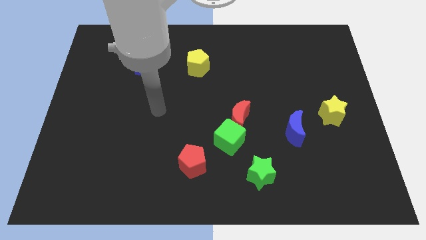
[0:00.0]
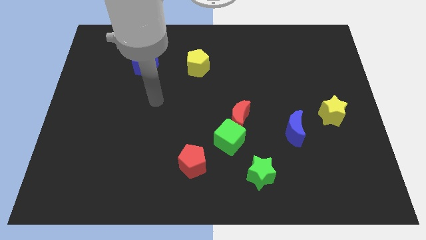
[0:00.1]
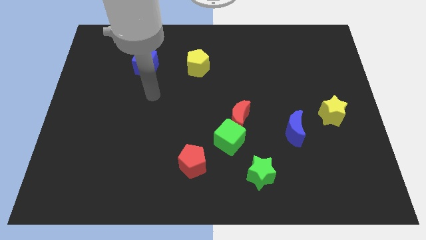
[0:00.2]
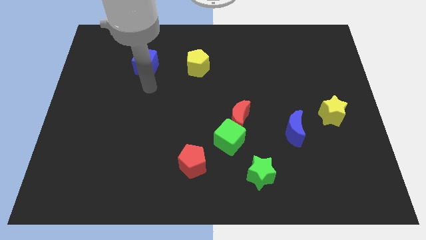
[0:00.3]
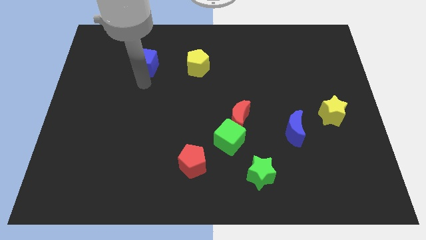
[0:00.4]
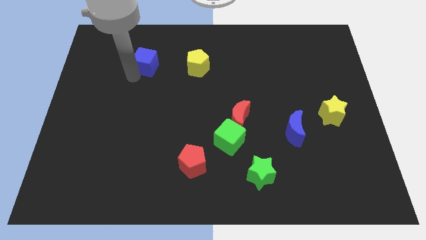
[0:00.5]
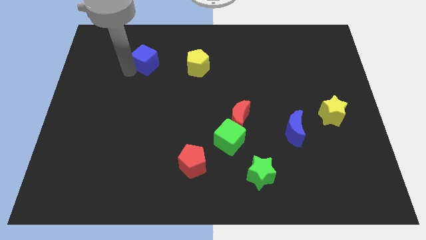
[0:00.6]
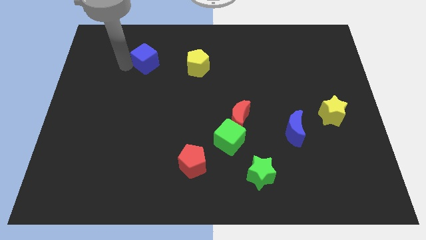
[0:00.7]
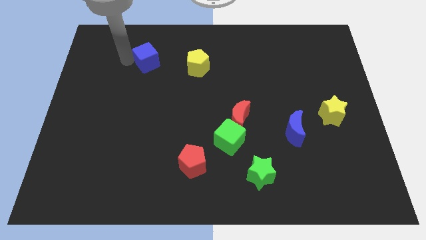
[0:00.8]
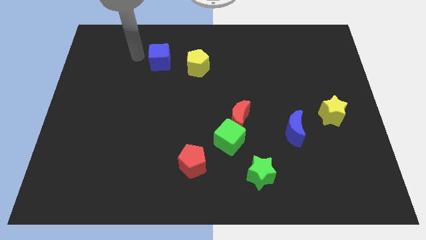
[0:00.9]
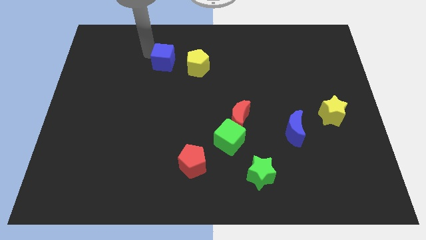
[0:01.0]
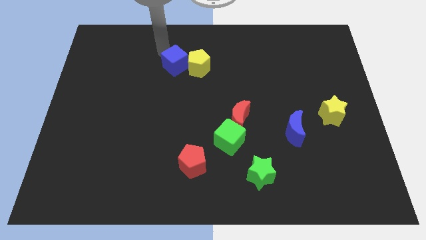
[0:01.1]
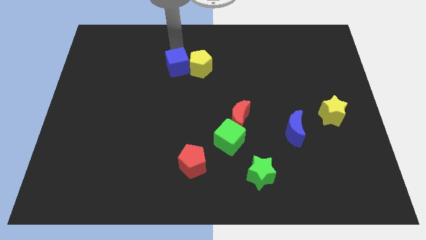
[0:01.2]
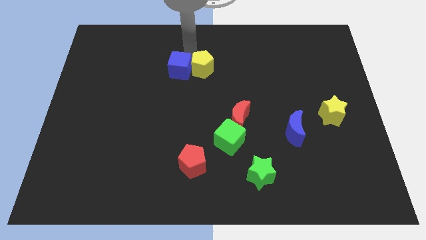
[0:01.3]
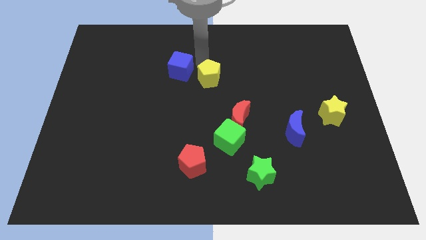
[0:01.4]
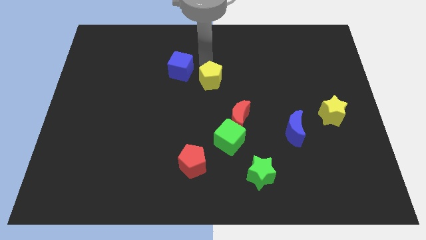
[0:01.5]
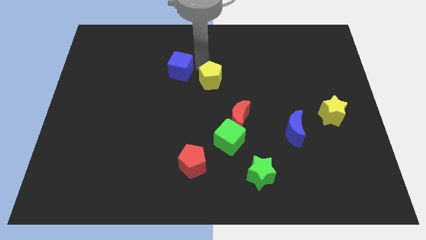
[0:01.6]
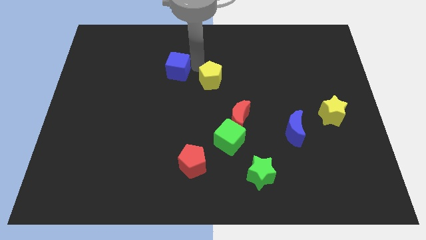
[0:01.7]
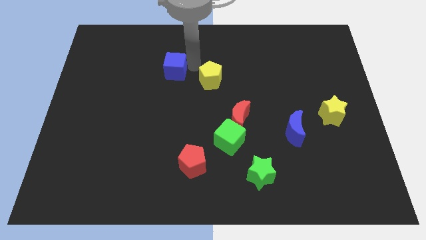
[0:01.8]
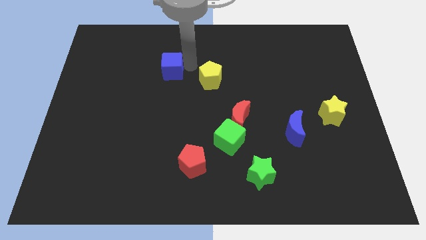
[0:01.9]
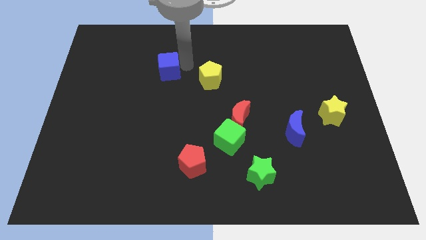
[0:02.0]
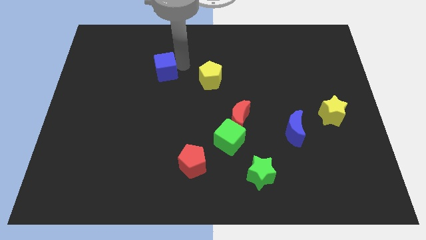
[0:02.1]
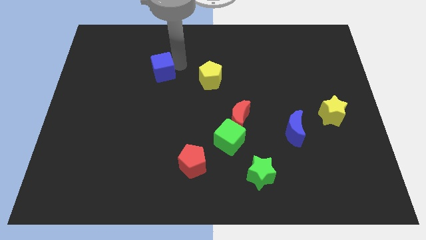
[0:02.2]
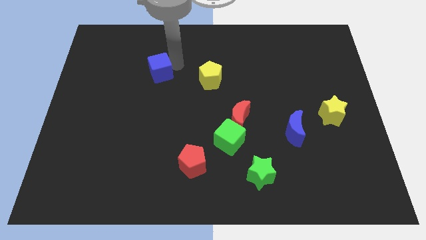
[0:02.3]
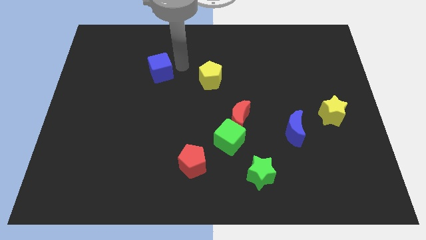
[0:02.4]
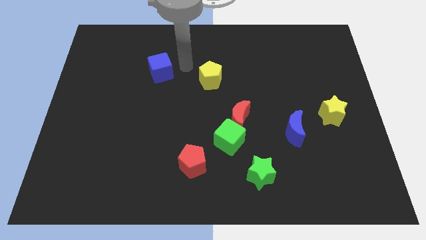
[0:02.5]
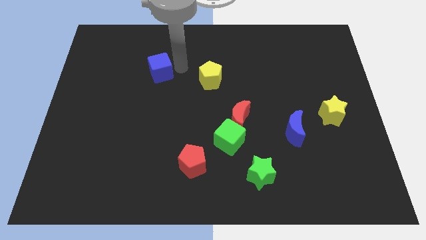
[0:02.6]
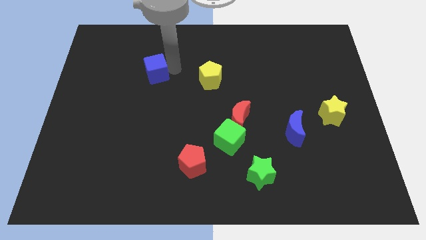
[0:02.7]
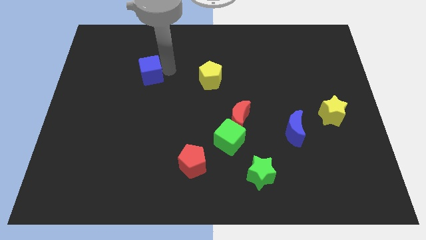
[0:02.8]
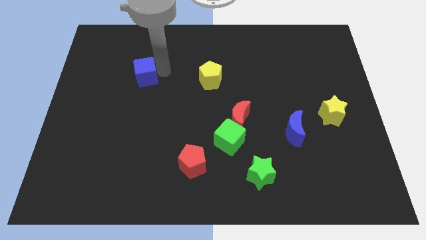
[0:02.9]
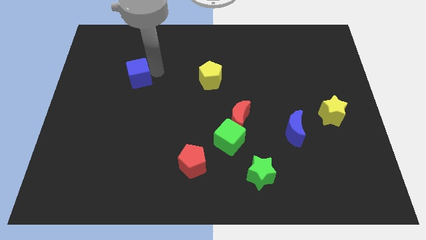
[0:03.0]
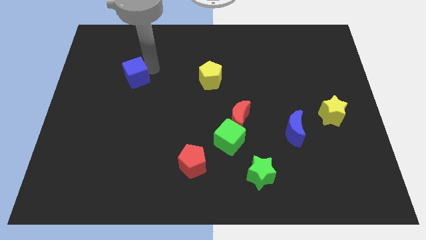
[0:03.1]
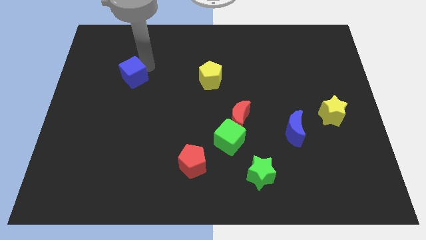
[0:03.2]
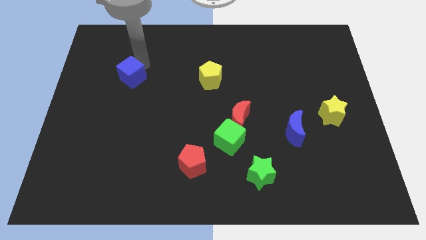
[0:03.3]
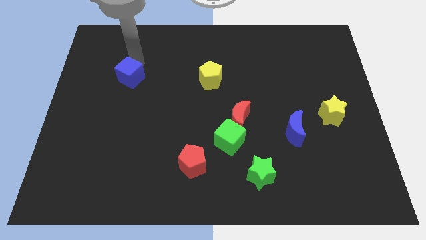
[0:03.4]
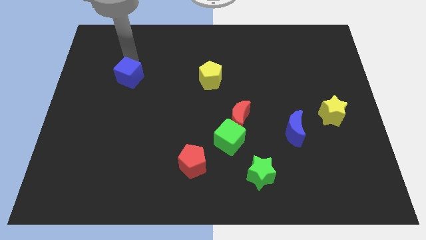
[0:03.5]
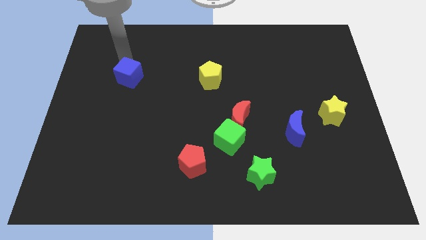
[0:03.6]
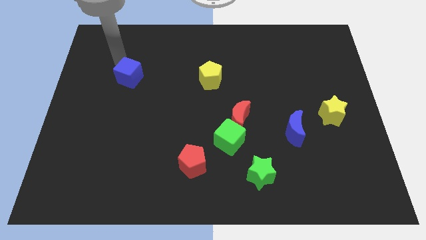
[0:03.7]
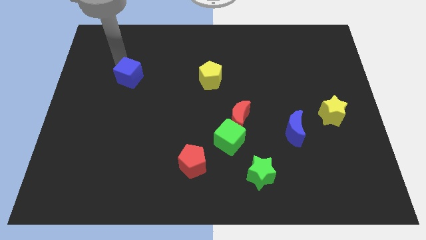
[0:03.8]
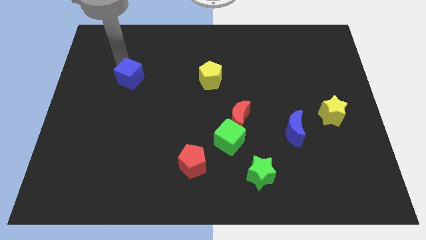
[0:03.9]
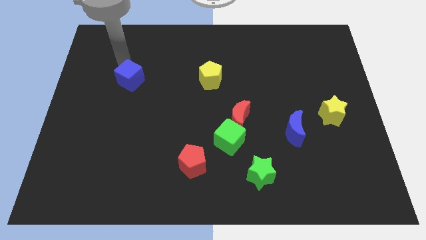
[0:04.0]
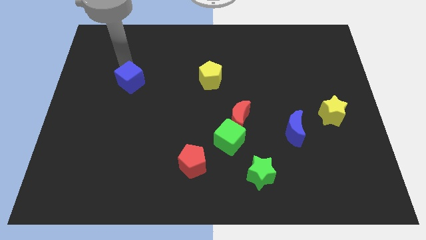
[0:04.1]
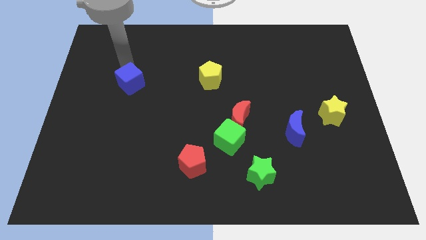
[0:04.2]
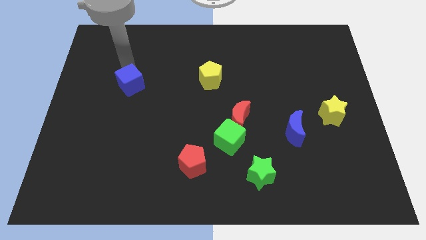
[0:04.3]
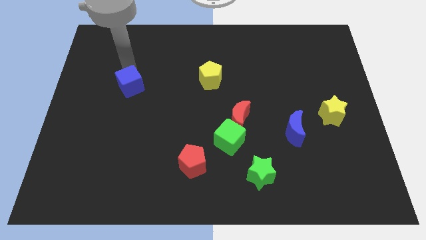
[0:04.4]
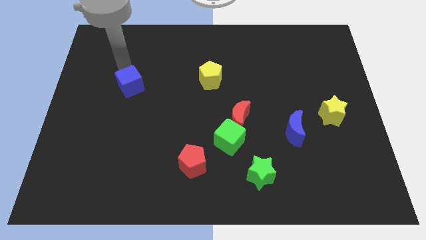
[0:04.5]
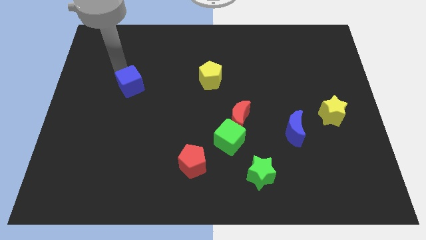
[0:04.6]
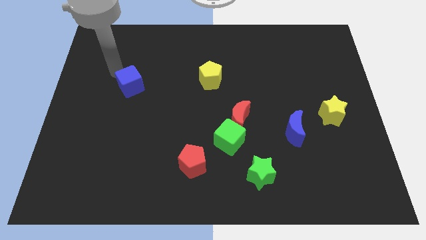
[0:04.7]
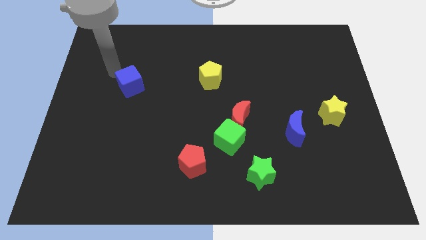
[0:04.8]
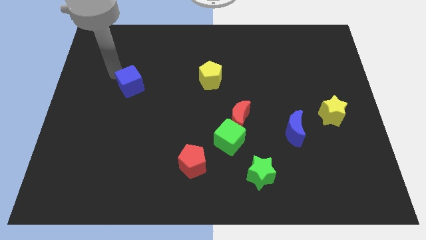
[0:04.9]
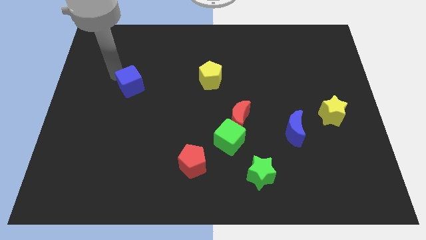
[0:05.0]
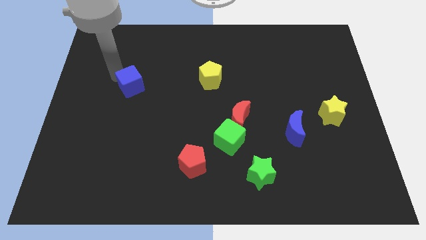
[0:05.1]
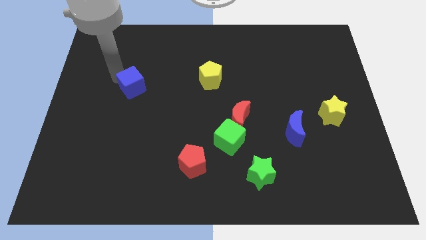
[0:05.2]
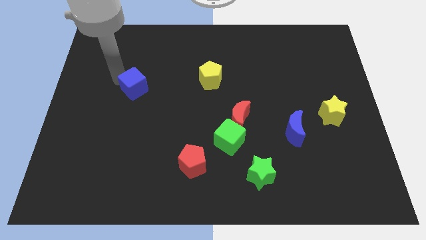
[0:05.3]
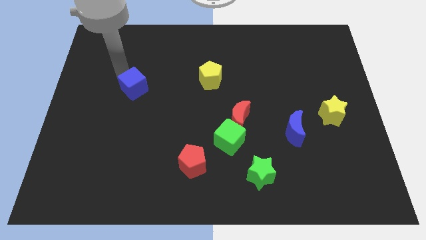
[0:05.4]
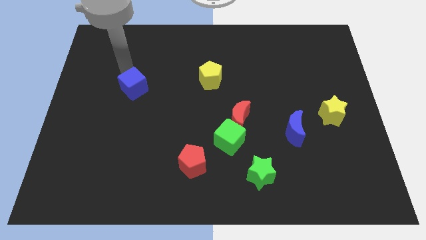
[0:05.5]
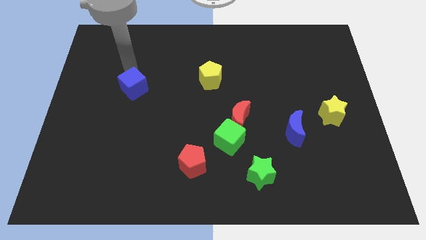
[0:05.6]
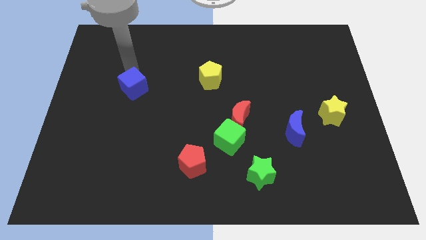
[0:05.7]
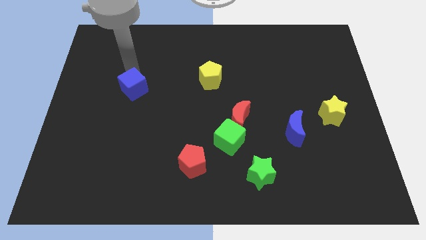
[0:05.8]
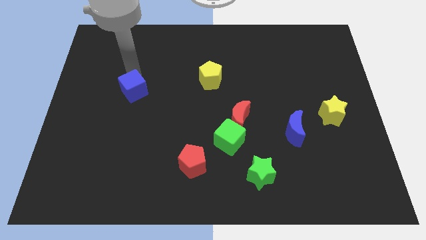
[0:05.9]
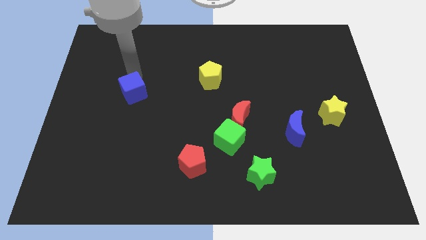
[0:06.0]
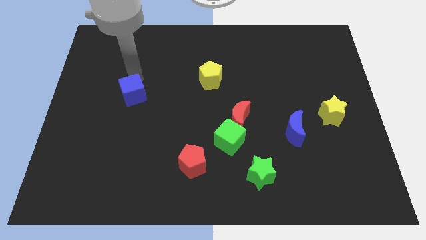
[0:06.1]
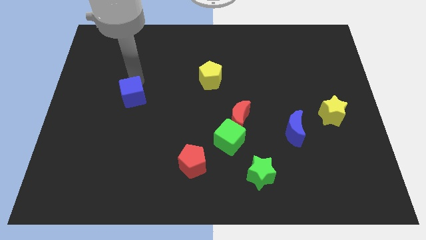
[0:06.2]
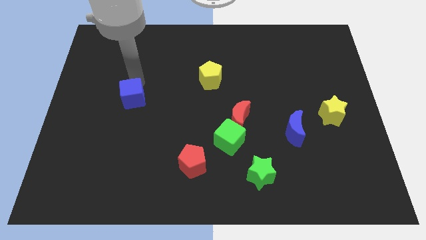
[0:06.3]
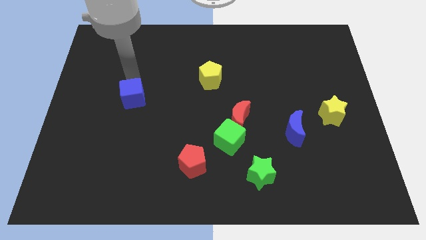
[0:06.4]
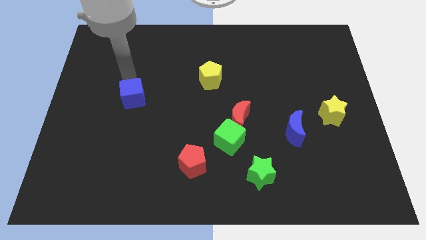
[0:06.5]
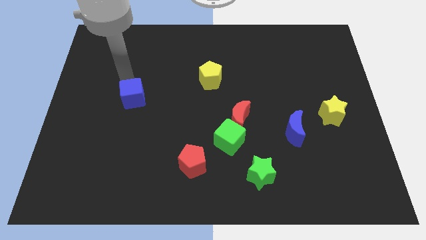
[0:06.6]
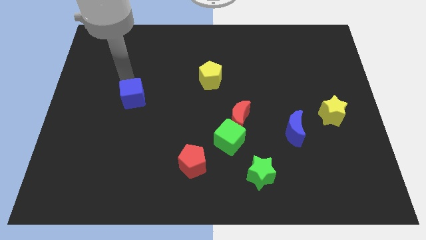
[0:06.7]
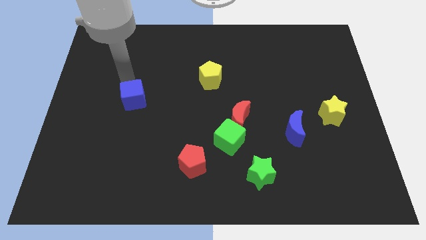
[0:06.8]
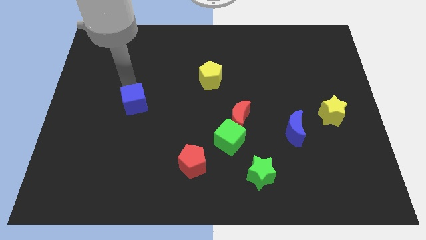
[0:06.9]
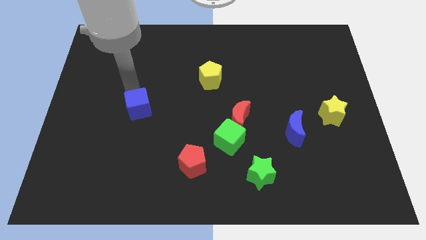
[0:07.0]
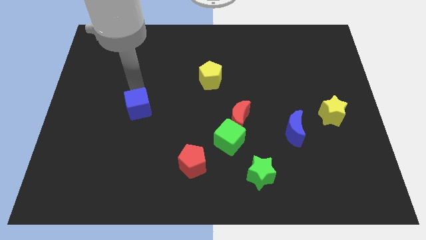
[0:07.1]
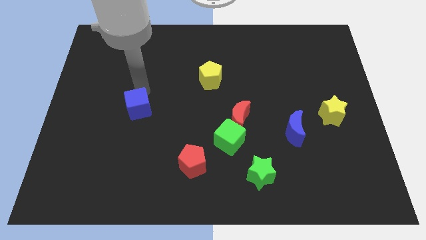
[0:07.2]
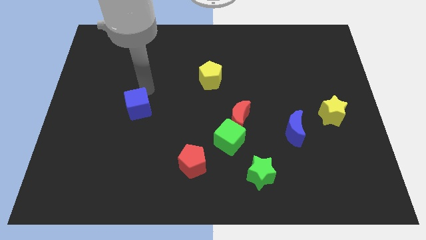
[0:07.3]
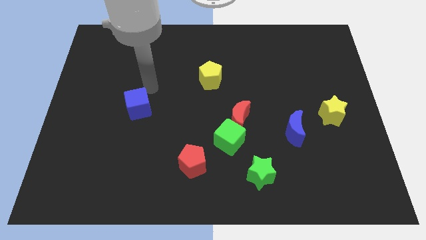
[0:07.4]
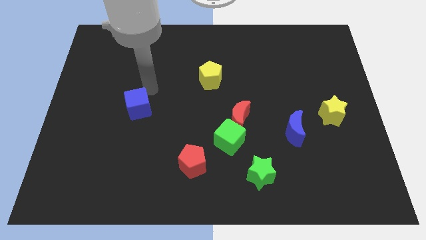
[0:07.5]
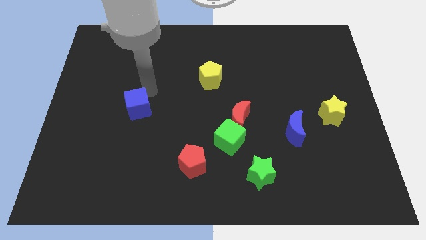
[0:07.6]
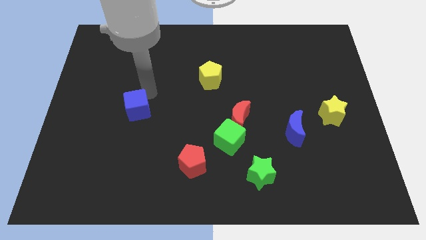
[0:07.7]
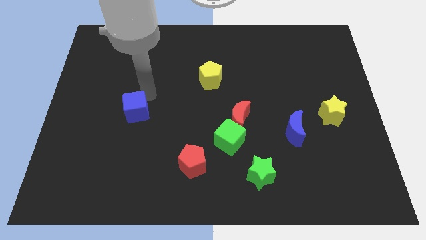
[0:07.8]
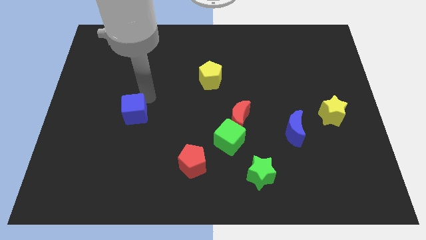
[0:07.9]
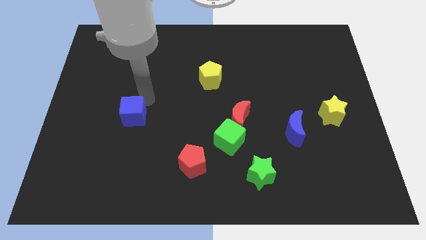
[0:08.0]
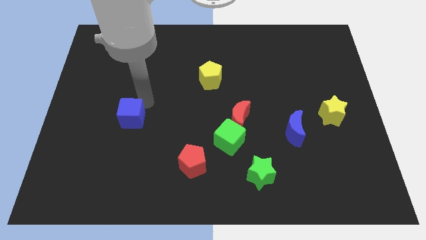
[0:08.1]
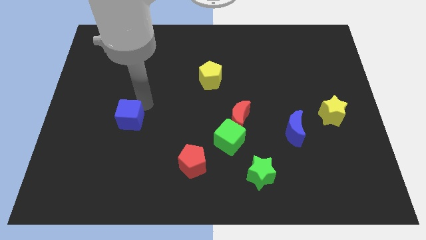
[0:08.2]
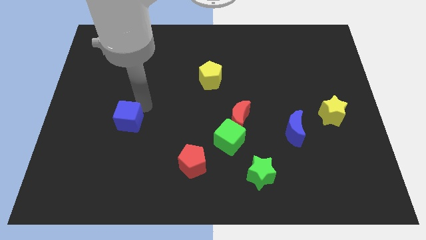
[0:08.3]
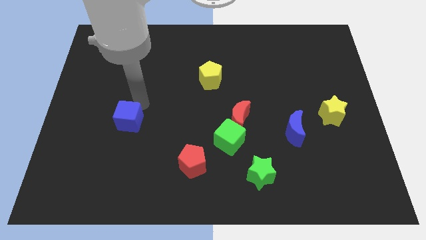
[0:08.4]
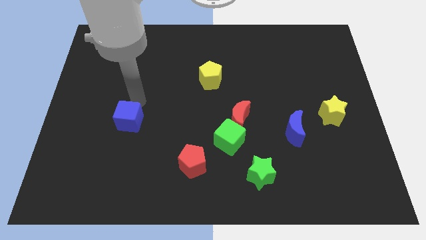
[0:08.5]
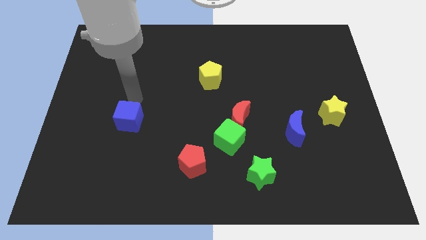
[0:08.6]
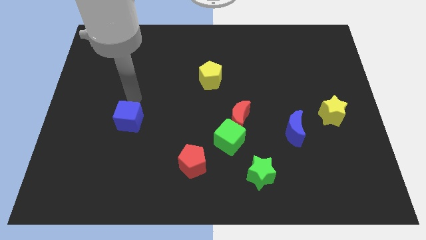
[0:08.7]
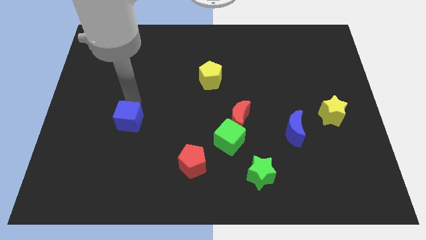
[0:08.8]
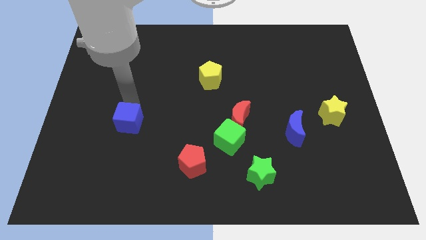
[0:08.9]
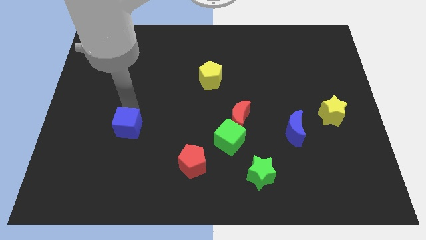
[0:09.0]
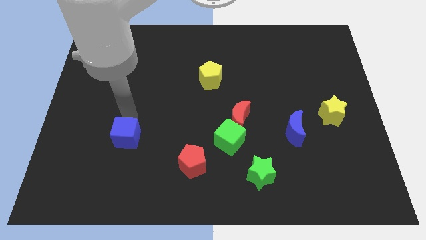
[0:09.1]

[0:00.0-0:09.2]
move the blue cube downwards
